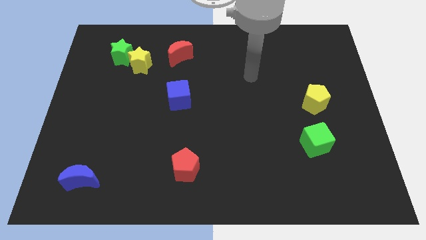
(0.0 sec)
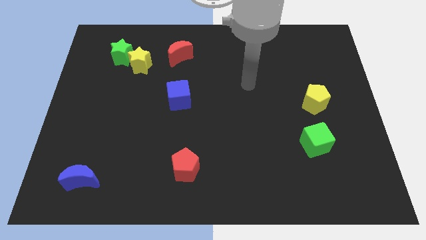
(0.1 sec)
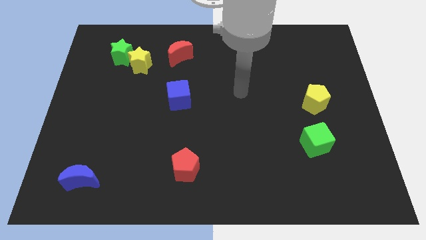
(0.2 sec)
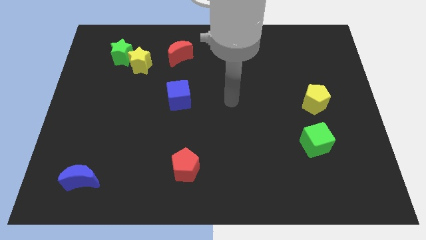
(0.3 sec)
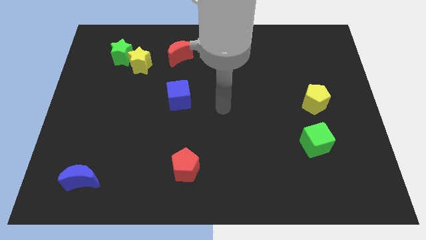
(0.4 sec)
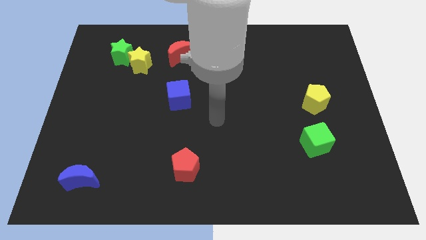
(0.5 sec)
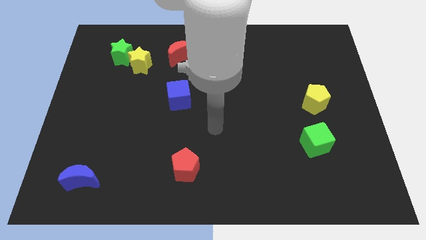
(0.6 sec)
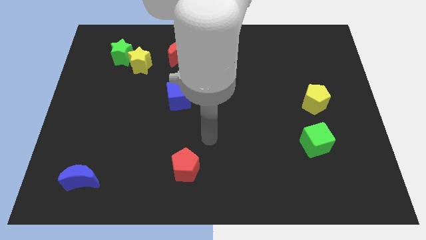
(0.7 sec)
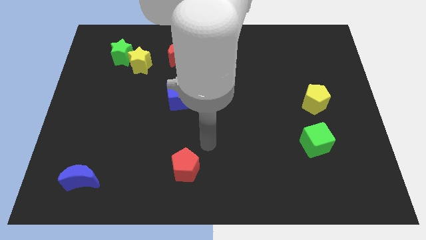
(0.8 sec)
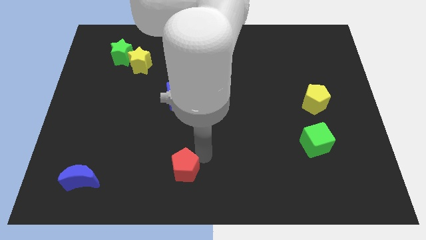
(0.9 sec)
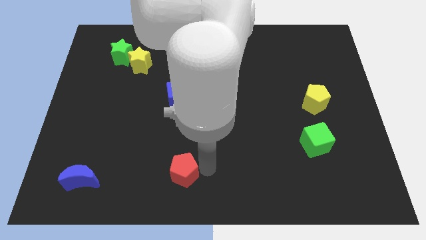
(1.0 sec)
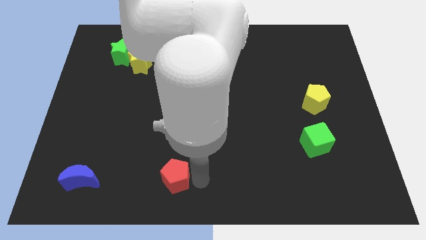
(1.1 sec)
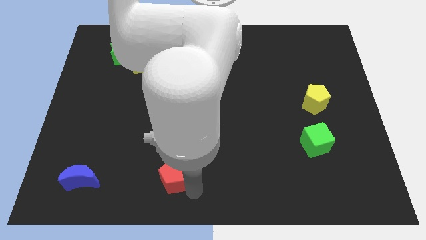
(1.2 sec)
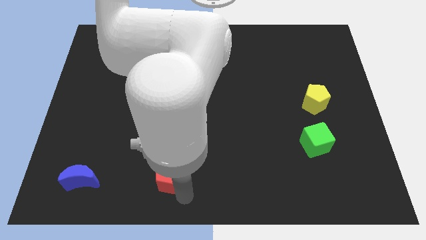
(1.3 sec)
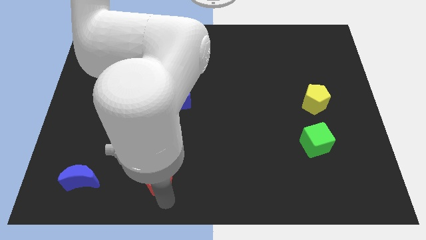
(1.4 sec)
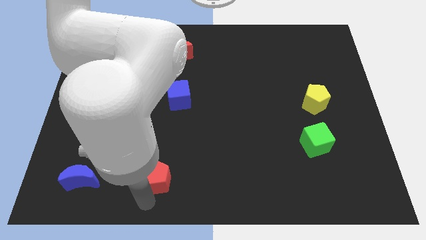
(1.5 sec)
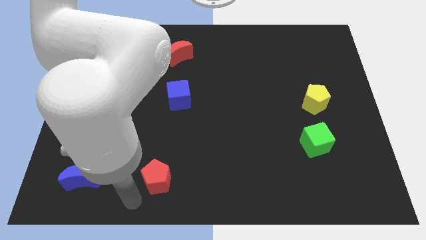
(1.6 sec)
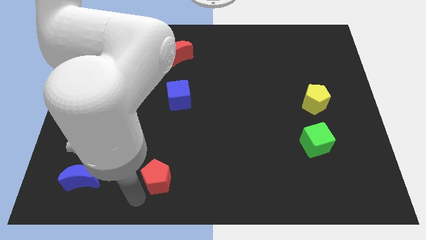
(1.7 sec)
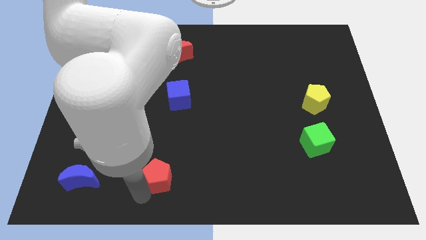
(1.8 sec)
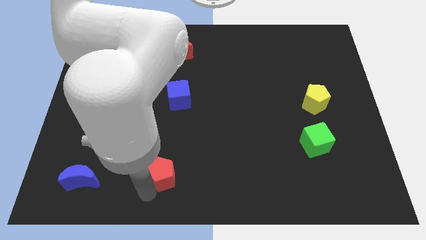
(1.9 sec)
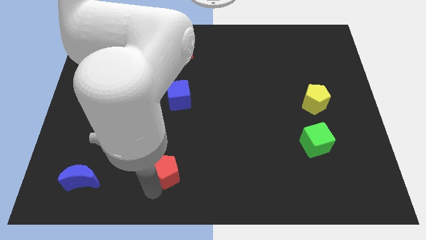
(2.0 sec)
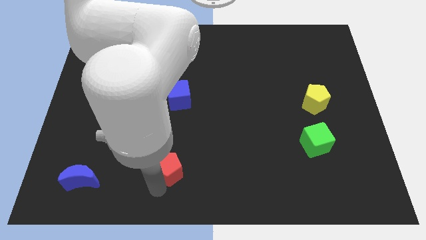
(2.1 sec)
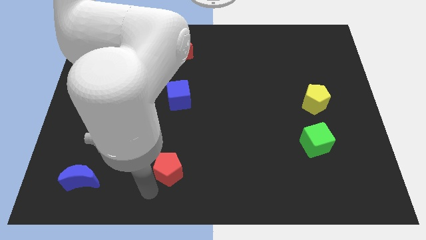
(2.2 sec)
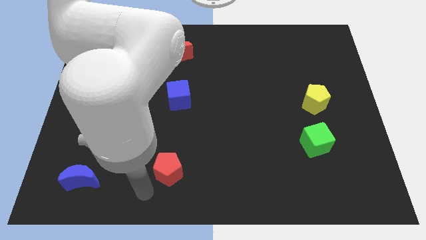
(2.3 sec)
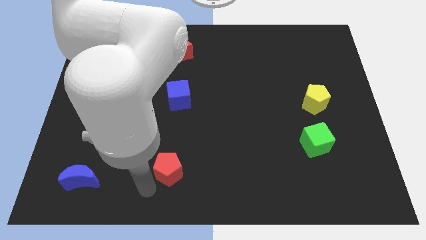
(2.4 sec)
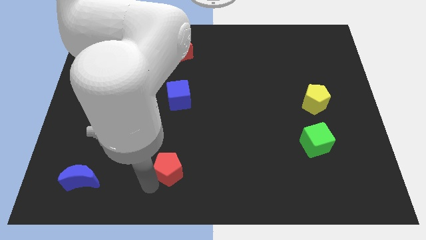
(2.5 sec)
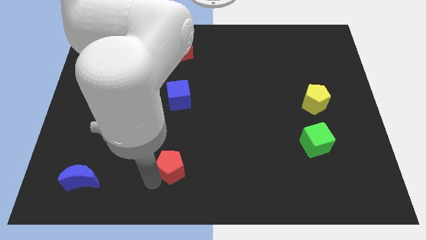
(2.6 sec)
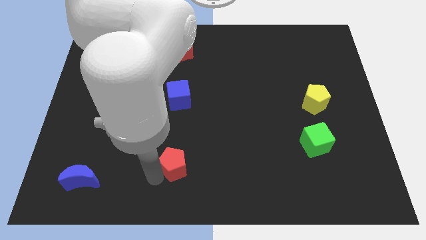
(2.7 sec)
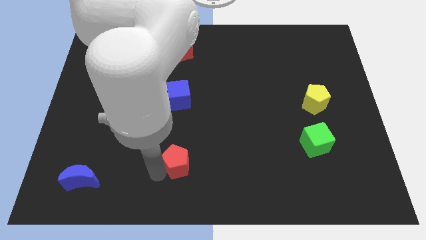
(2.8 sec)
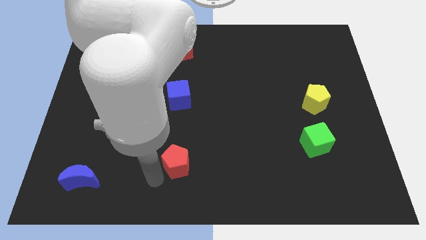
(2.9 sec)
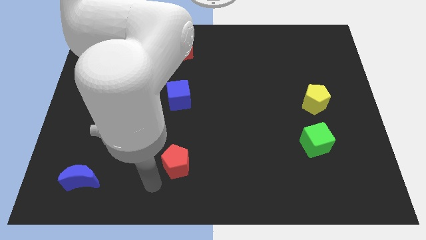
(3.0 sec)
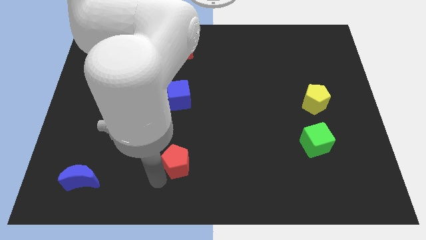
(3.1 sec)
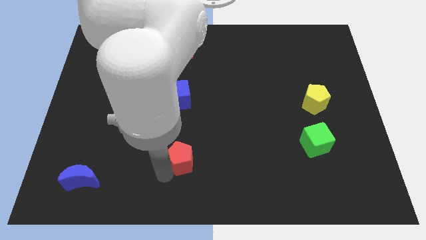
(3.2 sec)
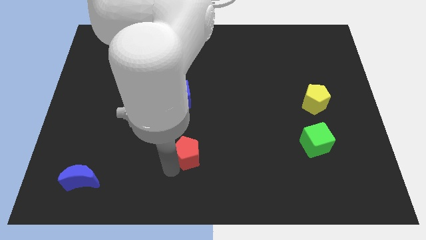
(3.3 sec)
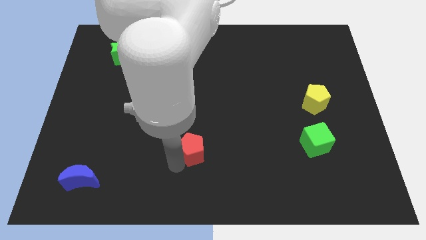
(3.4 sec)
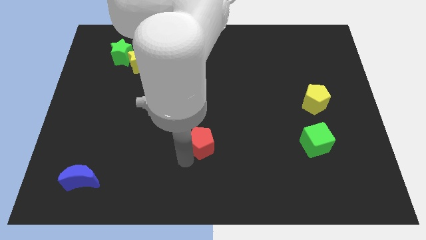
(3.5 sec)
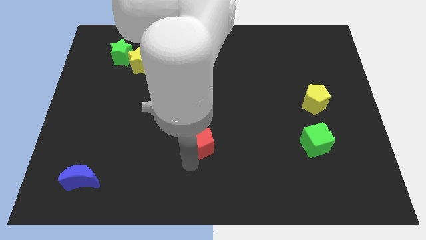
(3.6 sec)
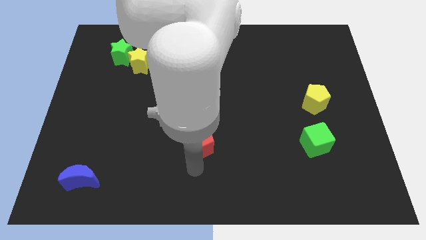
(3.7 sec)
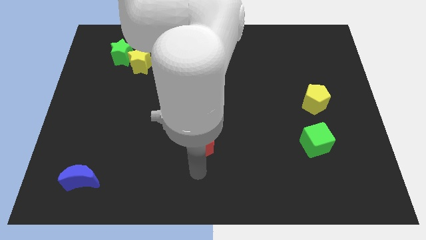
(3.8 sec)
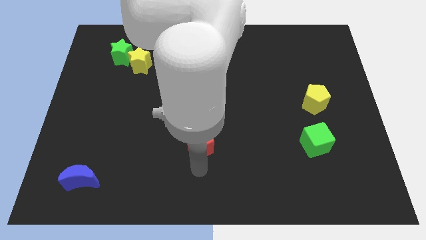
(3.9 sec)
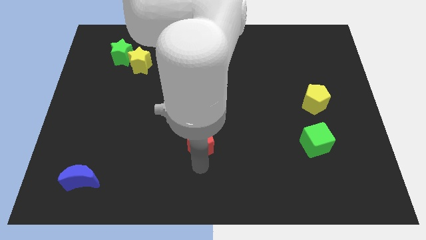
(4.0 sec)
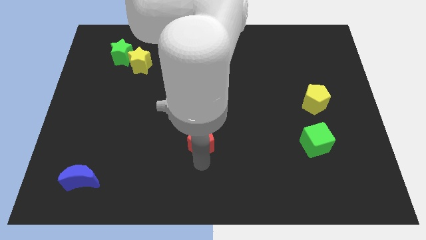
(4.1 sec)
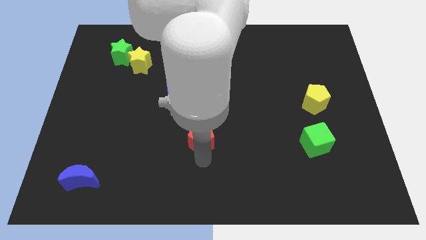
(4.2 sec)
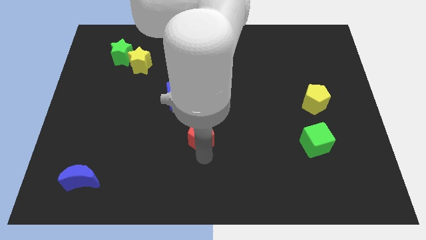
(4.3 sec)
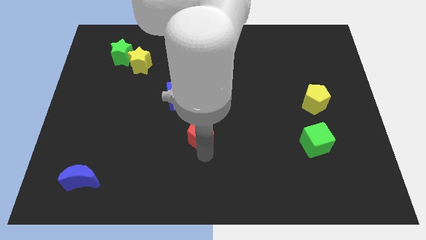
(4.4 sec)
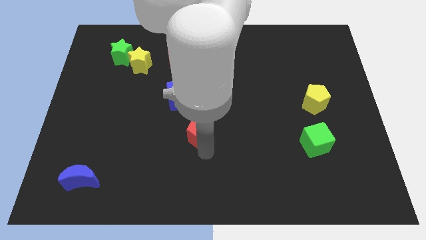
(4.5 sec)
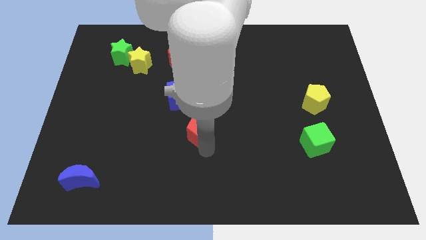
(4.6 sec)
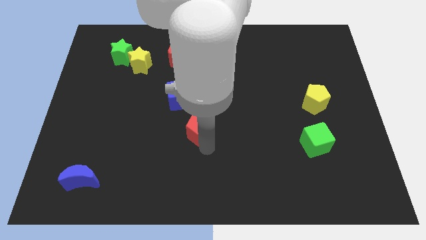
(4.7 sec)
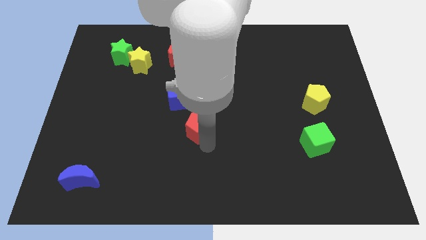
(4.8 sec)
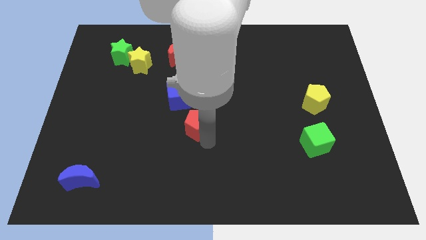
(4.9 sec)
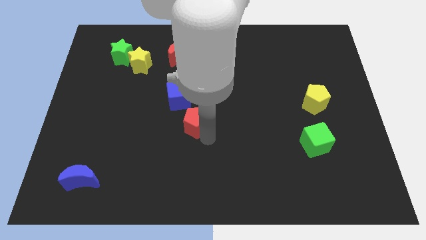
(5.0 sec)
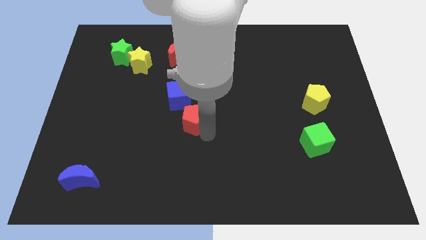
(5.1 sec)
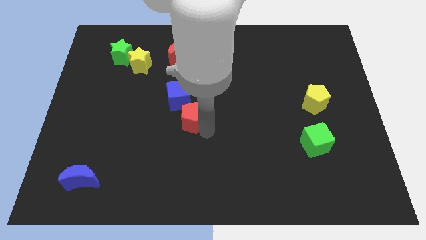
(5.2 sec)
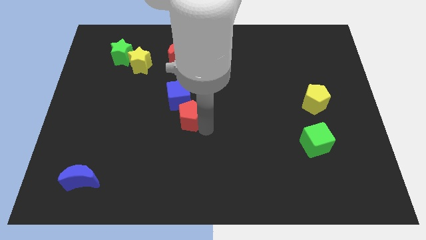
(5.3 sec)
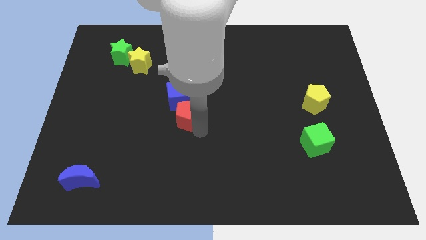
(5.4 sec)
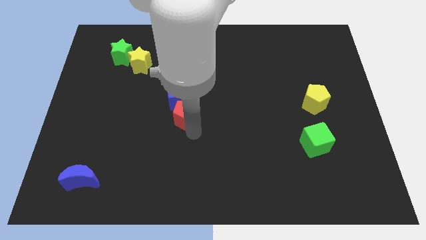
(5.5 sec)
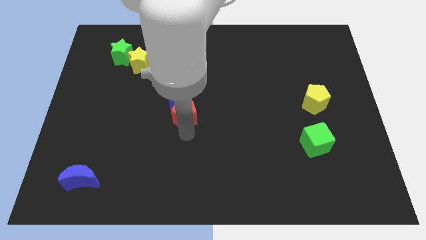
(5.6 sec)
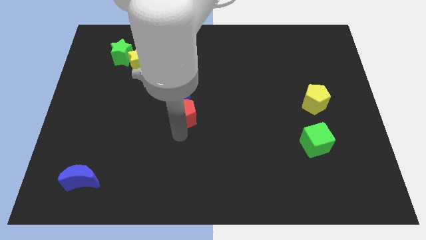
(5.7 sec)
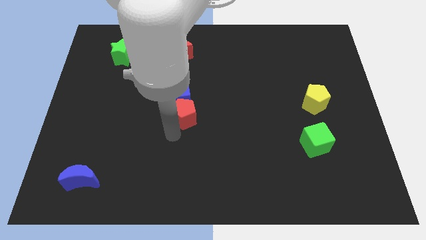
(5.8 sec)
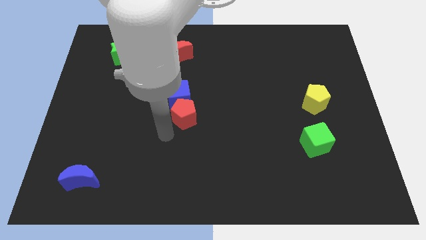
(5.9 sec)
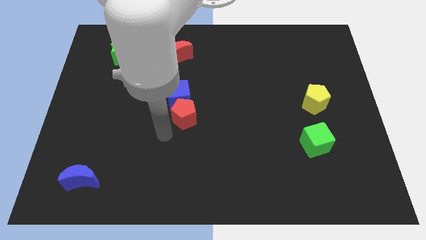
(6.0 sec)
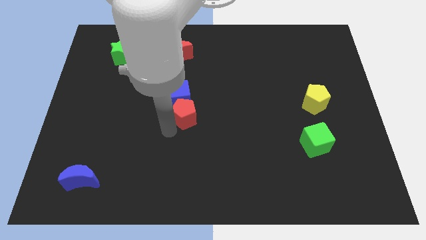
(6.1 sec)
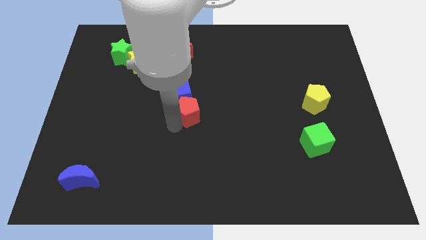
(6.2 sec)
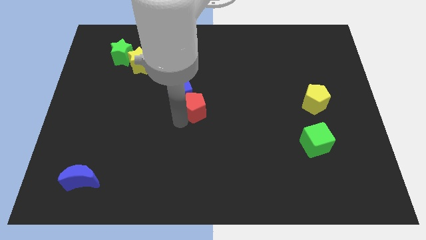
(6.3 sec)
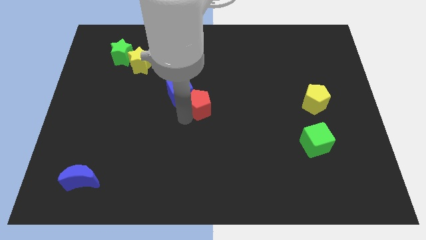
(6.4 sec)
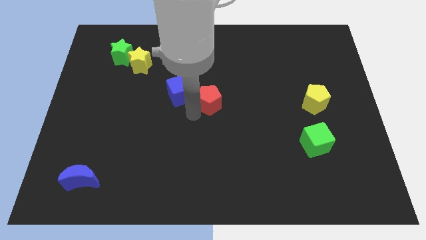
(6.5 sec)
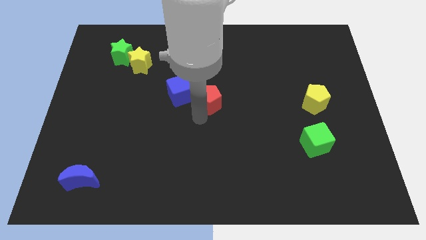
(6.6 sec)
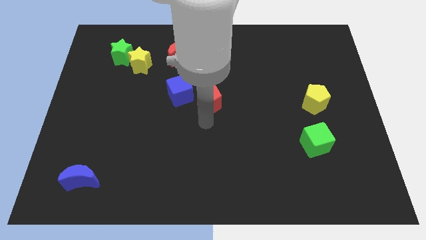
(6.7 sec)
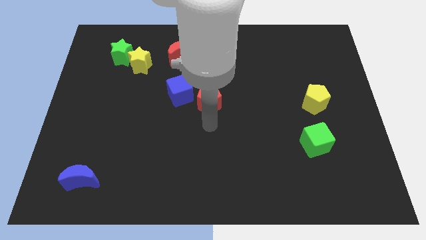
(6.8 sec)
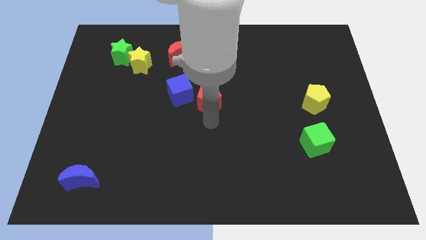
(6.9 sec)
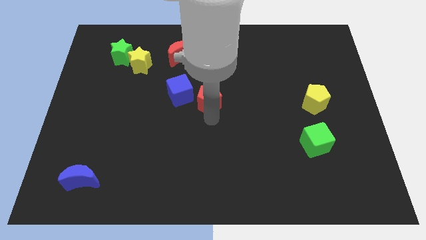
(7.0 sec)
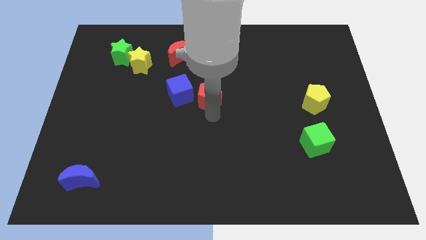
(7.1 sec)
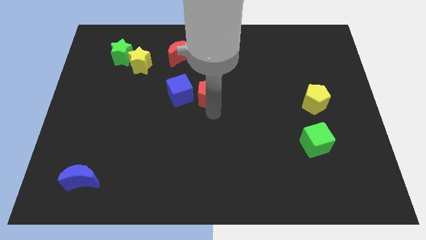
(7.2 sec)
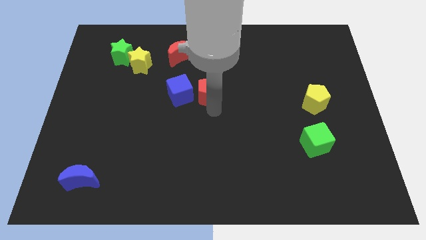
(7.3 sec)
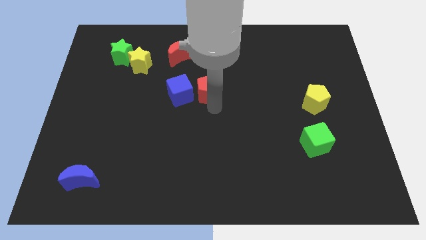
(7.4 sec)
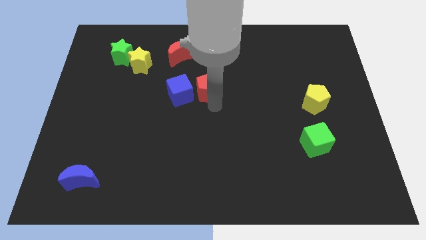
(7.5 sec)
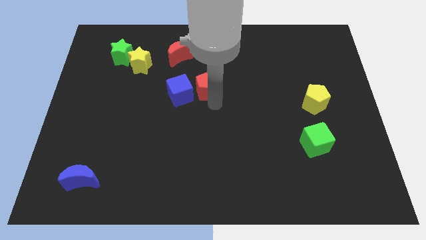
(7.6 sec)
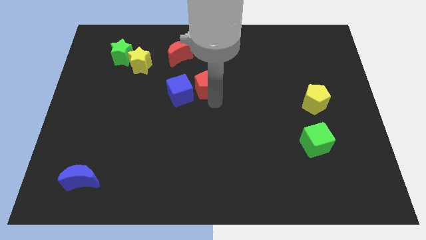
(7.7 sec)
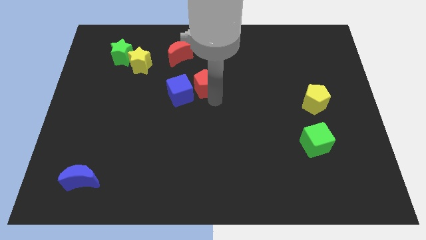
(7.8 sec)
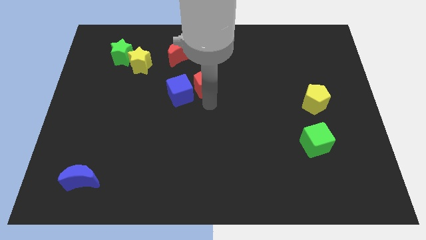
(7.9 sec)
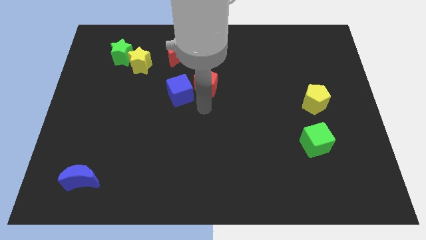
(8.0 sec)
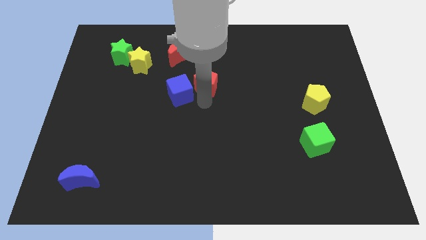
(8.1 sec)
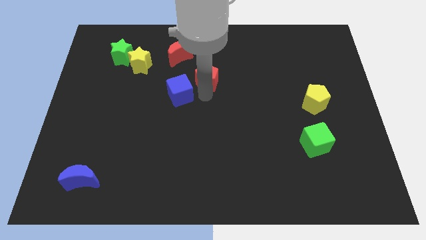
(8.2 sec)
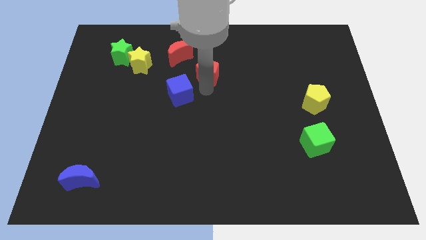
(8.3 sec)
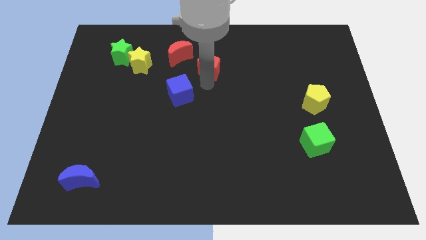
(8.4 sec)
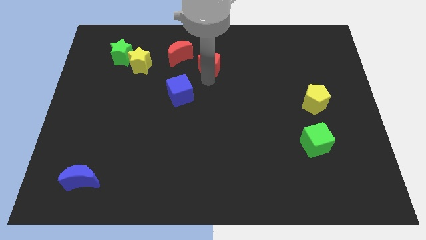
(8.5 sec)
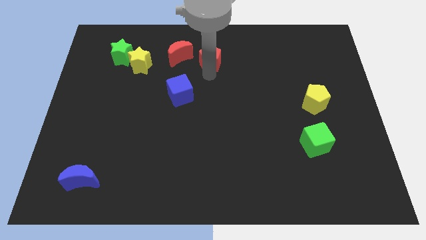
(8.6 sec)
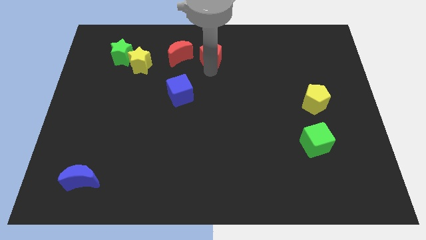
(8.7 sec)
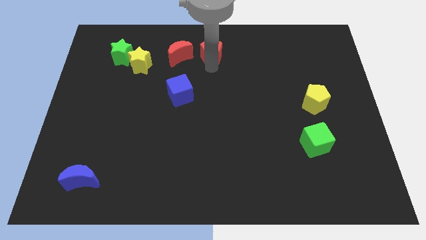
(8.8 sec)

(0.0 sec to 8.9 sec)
put the red pentagon to the towards your base
